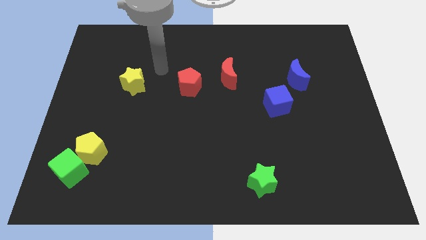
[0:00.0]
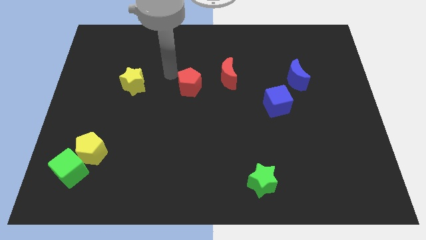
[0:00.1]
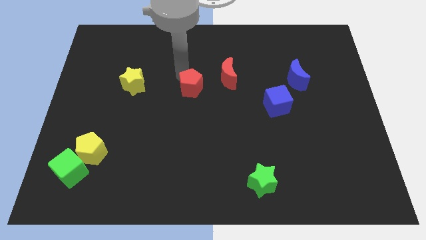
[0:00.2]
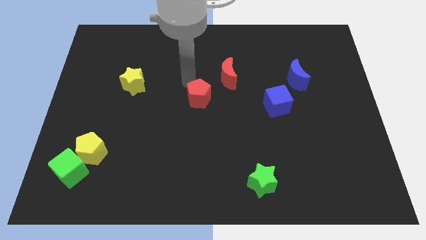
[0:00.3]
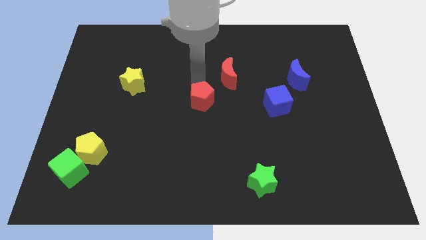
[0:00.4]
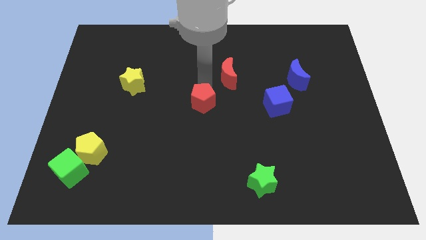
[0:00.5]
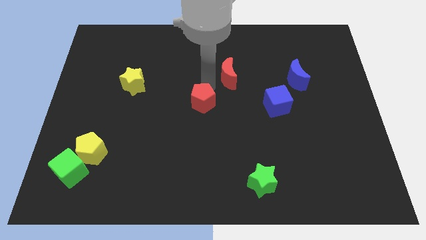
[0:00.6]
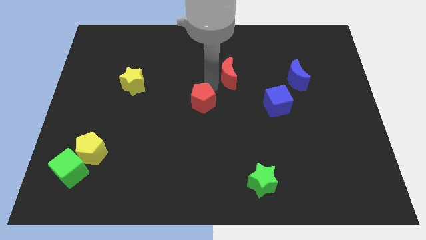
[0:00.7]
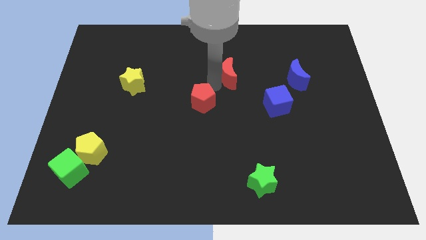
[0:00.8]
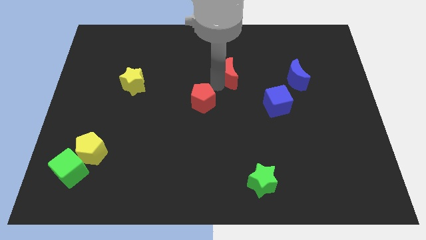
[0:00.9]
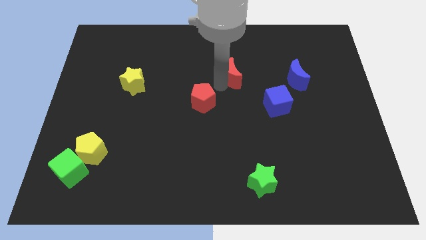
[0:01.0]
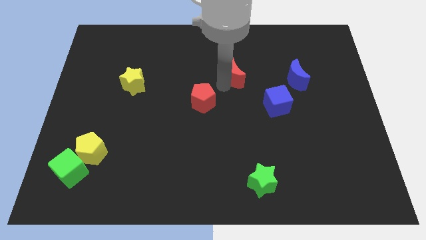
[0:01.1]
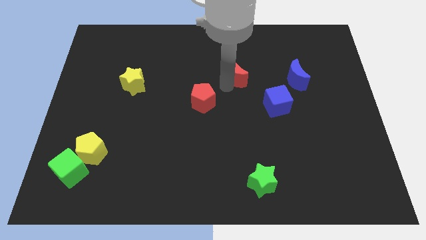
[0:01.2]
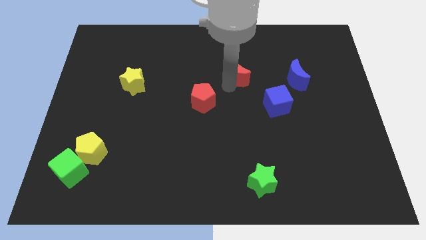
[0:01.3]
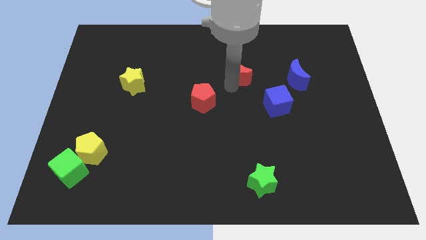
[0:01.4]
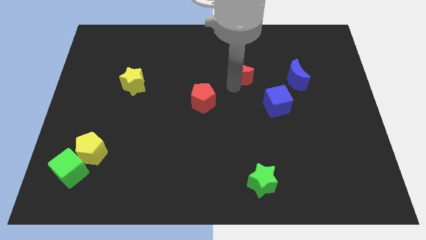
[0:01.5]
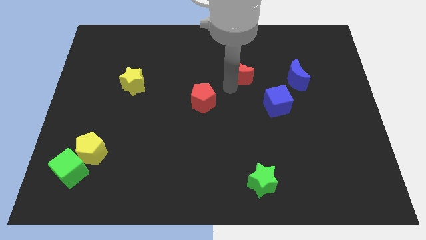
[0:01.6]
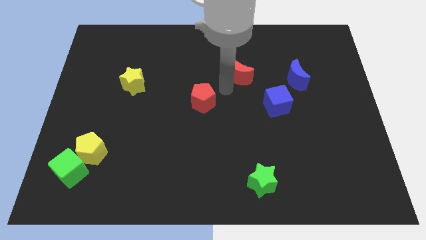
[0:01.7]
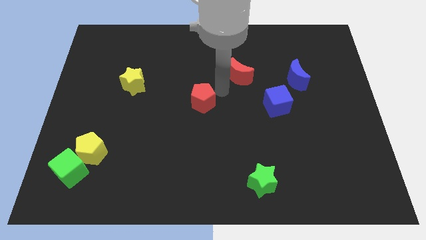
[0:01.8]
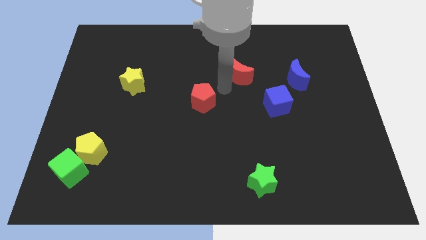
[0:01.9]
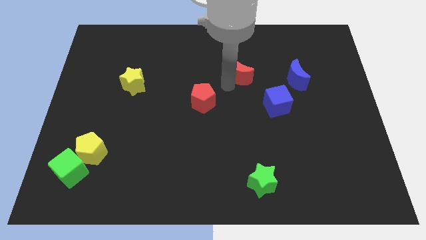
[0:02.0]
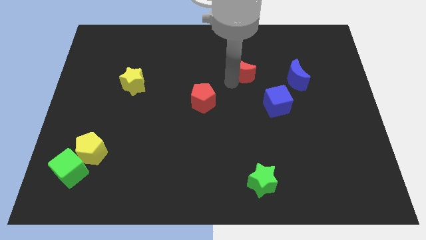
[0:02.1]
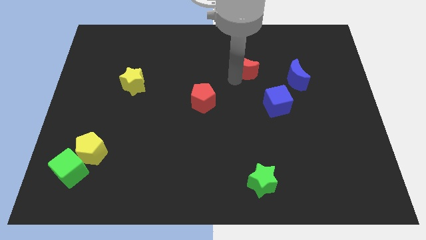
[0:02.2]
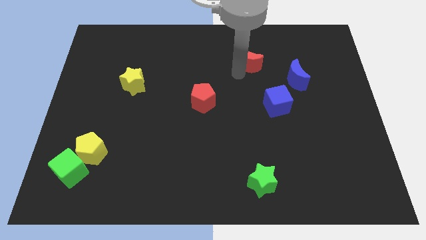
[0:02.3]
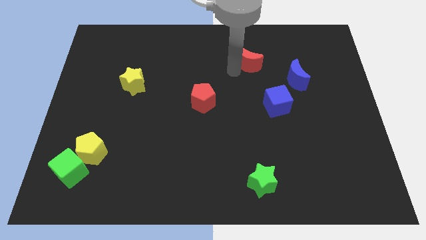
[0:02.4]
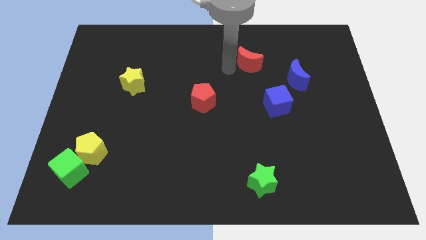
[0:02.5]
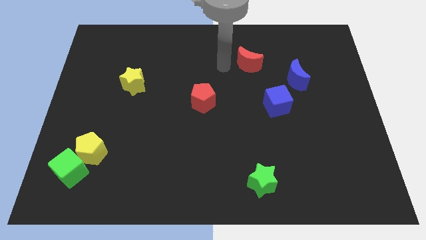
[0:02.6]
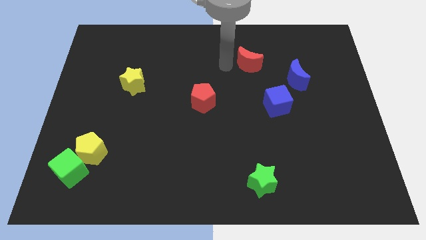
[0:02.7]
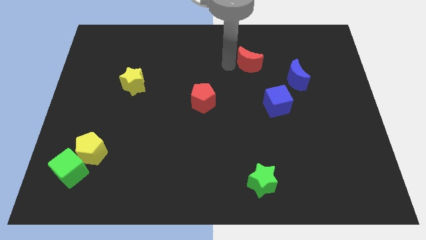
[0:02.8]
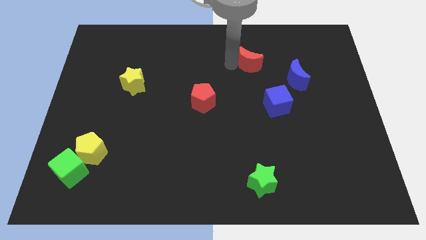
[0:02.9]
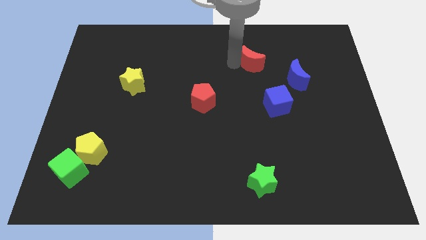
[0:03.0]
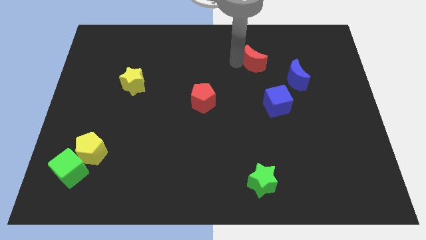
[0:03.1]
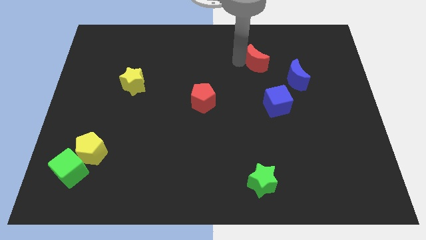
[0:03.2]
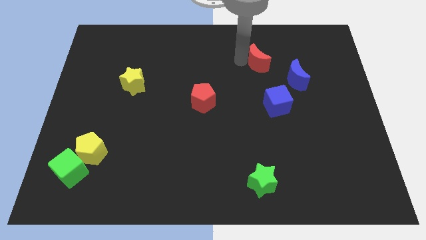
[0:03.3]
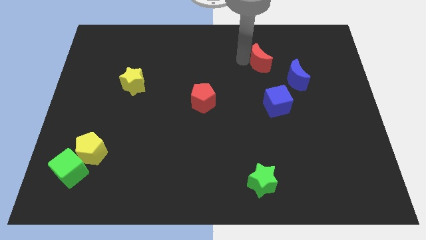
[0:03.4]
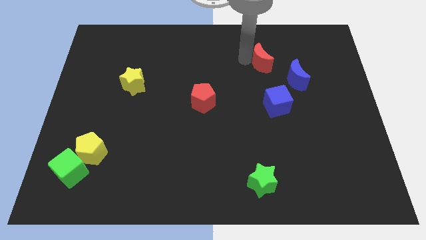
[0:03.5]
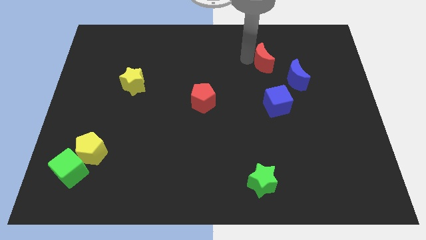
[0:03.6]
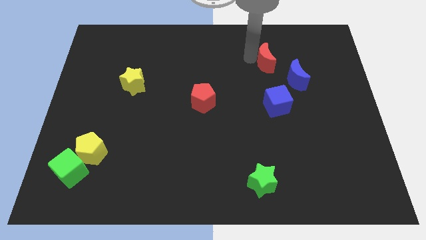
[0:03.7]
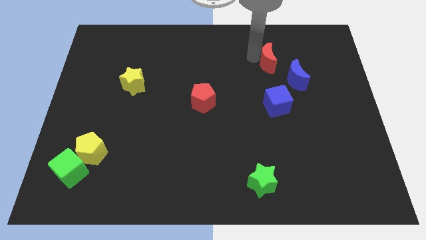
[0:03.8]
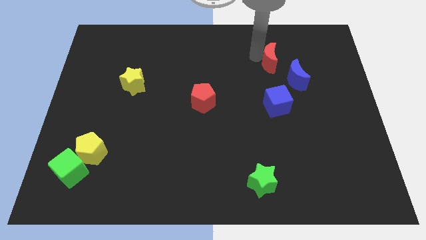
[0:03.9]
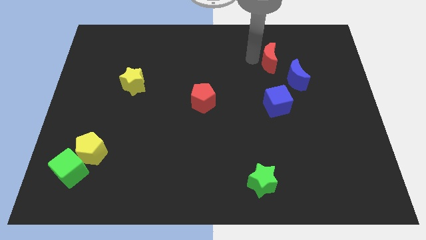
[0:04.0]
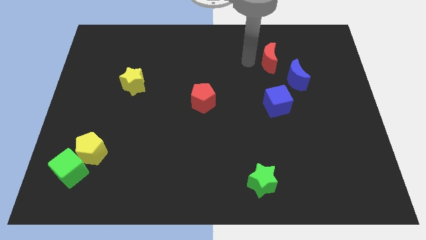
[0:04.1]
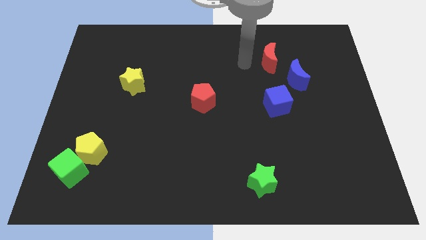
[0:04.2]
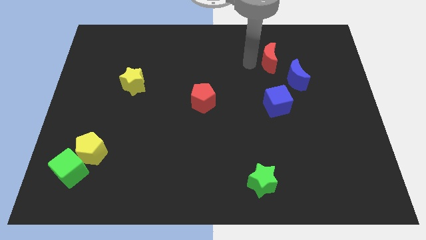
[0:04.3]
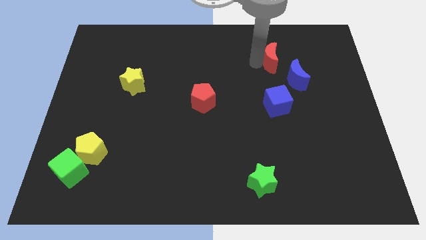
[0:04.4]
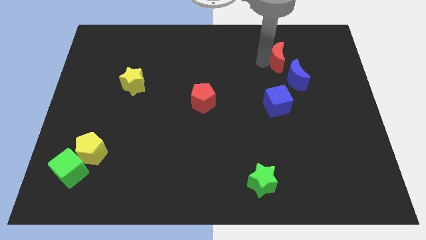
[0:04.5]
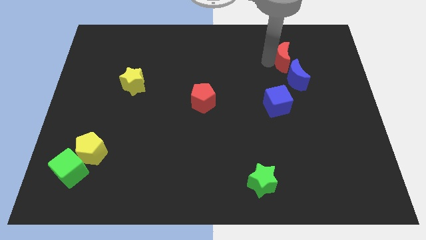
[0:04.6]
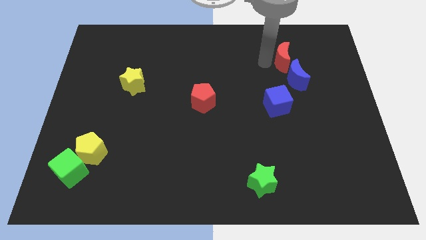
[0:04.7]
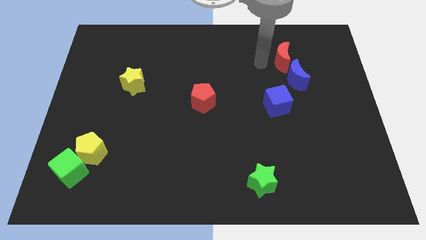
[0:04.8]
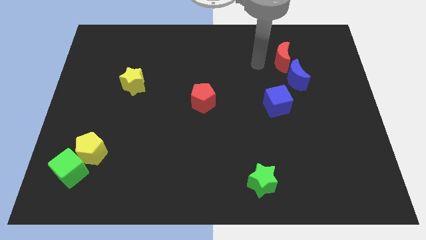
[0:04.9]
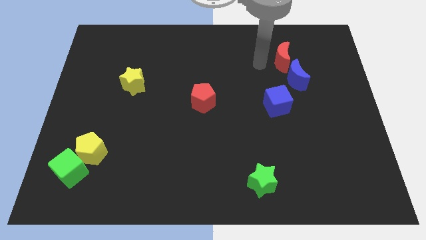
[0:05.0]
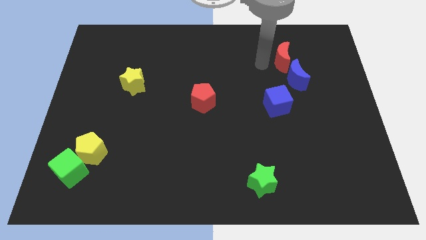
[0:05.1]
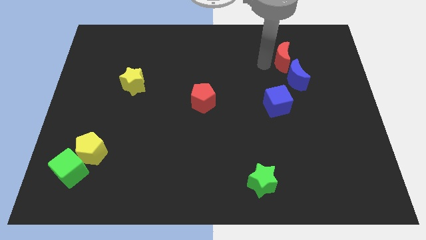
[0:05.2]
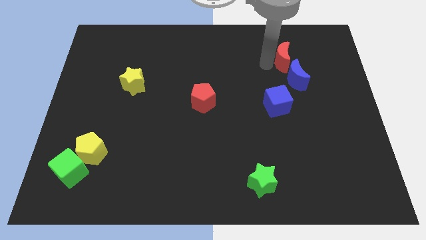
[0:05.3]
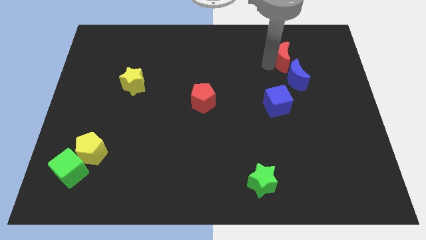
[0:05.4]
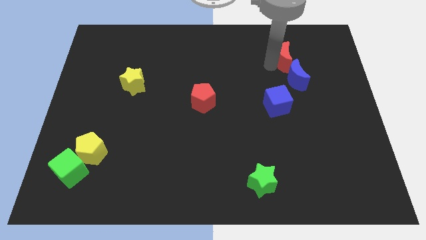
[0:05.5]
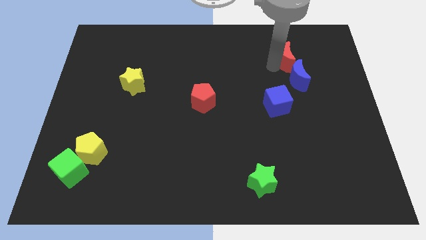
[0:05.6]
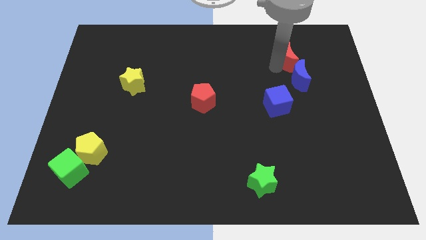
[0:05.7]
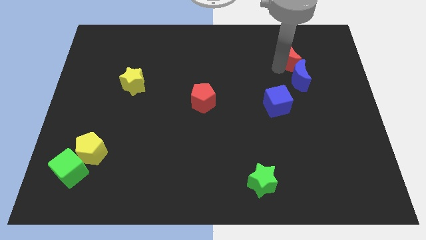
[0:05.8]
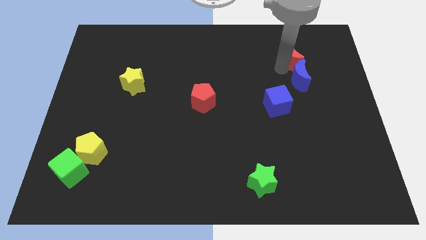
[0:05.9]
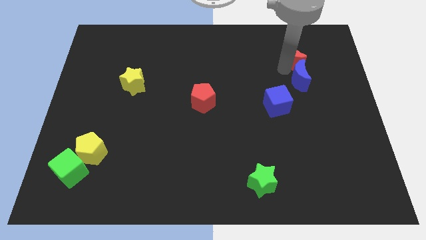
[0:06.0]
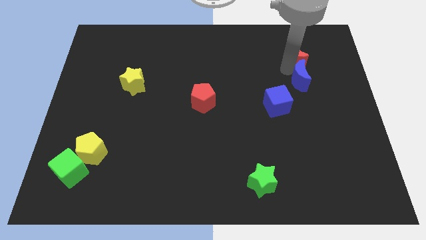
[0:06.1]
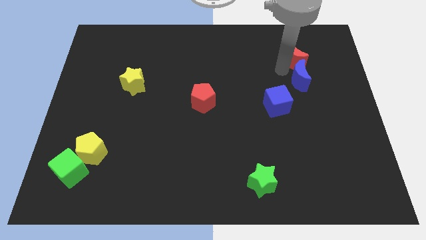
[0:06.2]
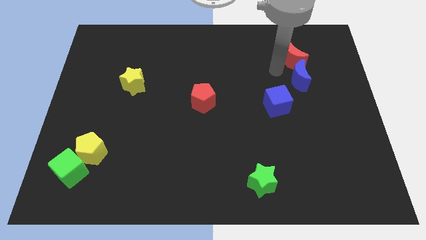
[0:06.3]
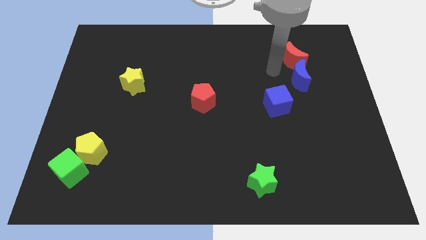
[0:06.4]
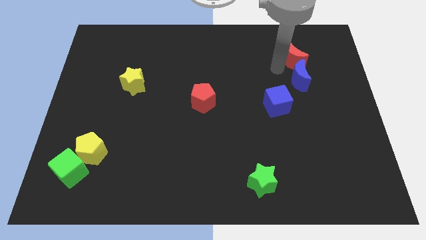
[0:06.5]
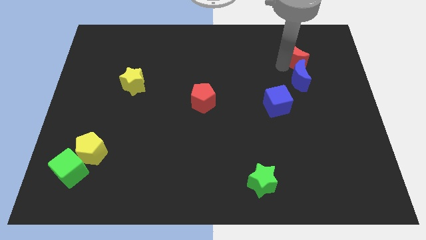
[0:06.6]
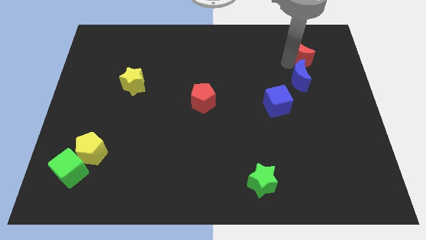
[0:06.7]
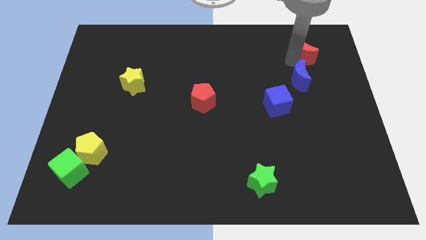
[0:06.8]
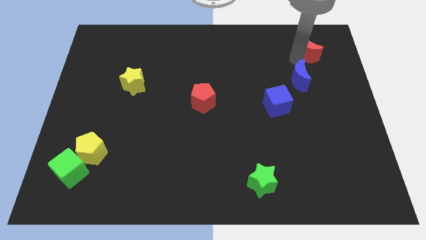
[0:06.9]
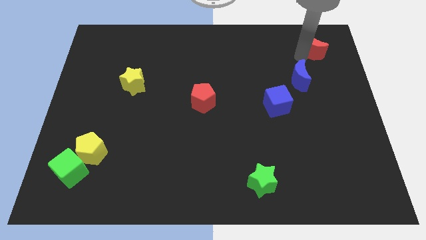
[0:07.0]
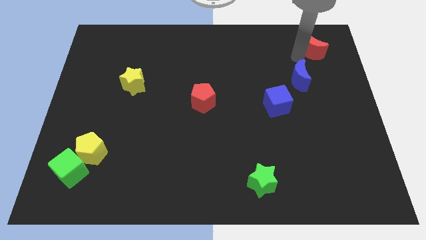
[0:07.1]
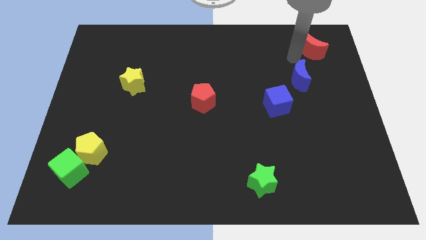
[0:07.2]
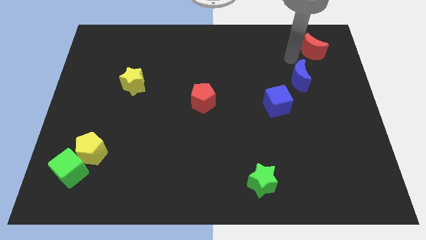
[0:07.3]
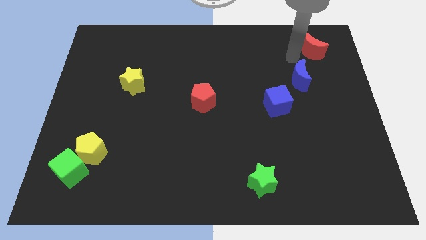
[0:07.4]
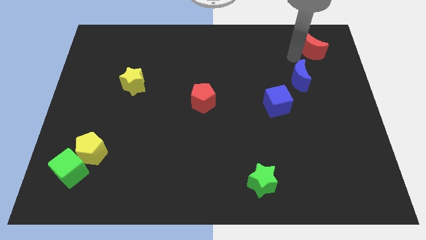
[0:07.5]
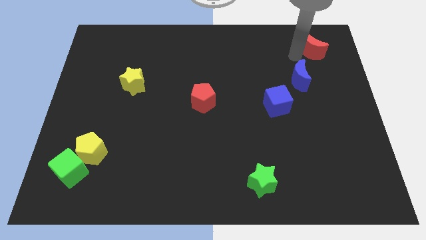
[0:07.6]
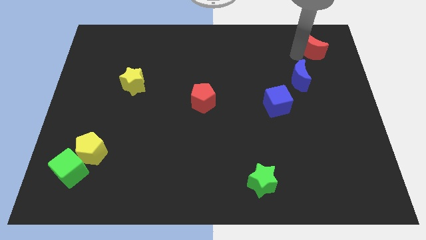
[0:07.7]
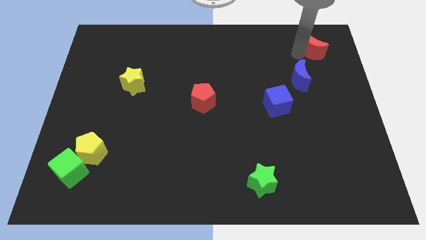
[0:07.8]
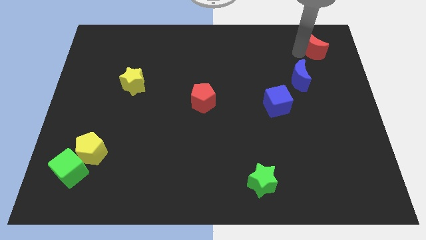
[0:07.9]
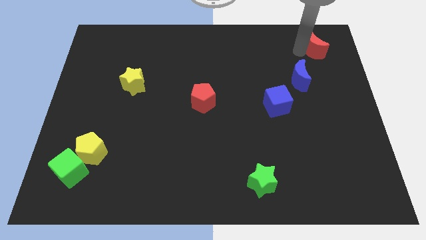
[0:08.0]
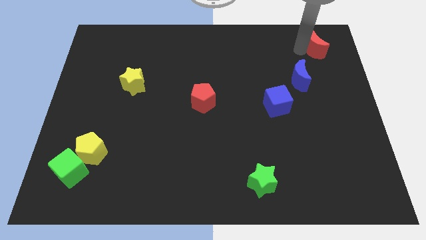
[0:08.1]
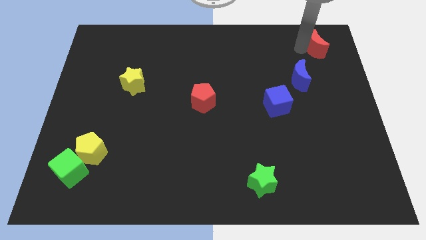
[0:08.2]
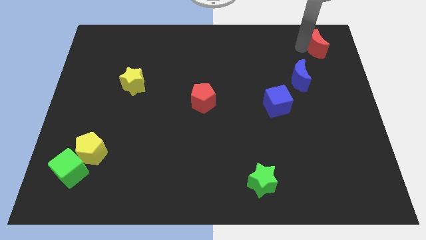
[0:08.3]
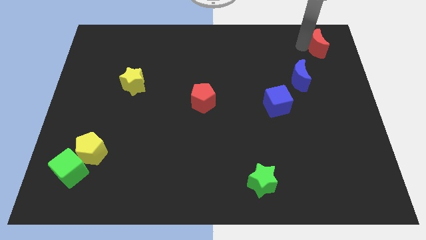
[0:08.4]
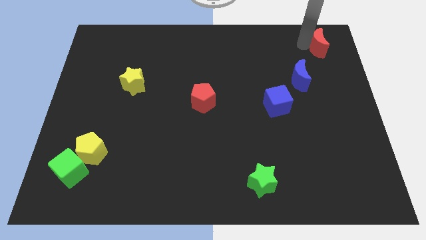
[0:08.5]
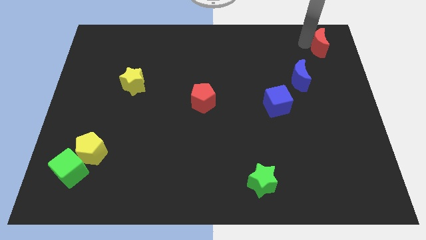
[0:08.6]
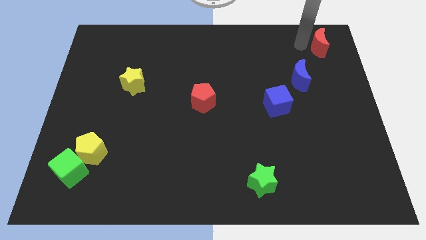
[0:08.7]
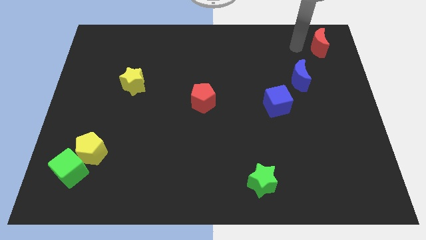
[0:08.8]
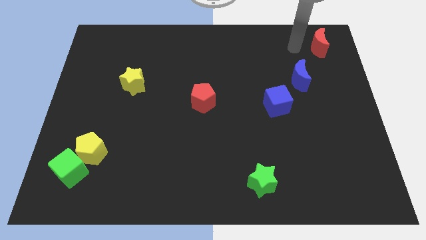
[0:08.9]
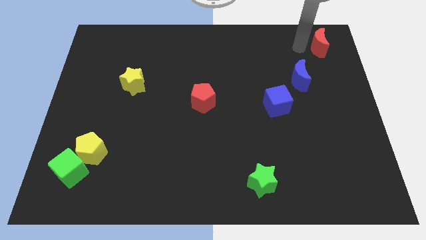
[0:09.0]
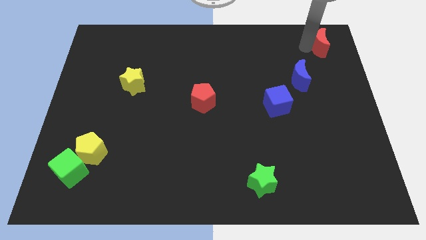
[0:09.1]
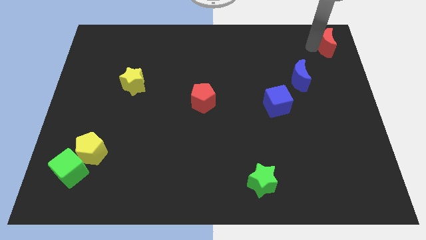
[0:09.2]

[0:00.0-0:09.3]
put the red moon to the top right
